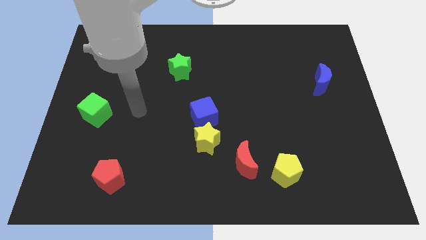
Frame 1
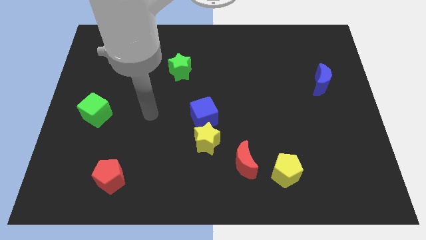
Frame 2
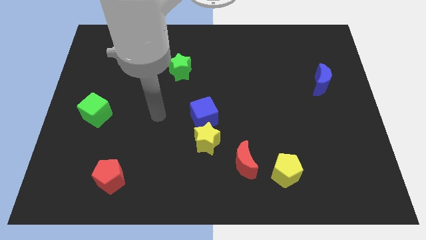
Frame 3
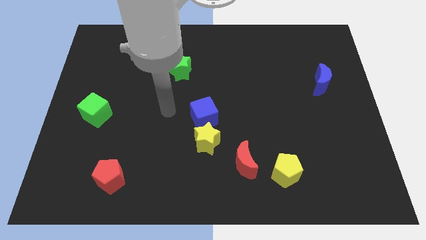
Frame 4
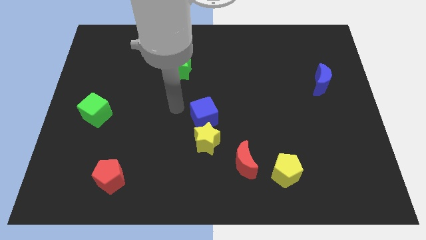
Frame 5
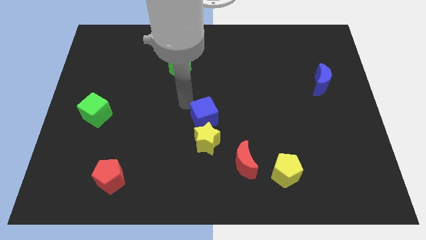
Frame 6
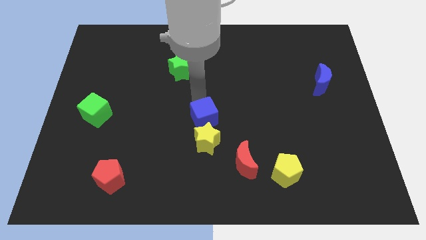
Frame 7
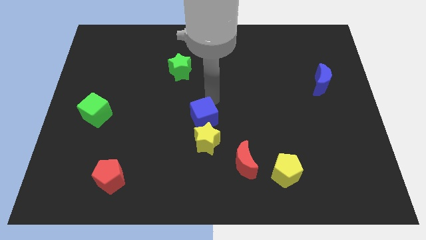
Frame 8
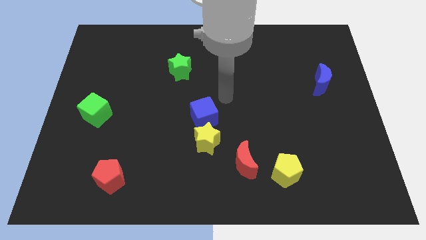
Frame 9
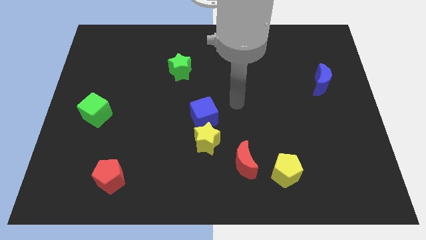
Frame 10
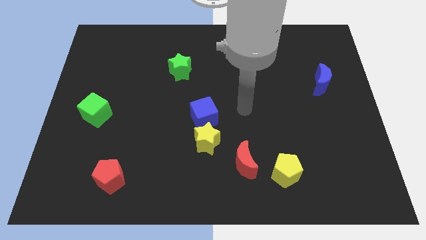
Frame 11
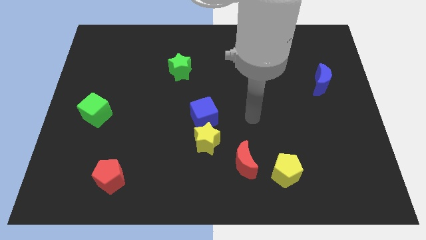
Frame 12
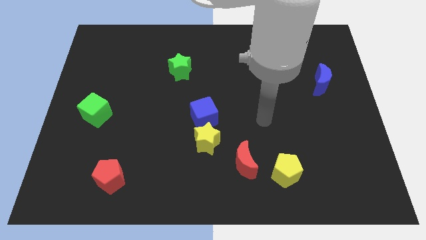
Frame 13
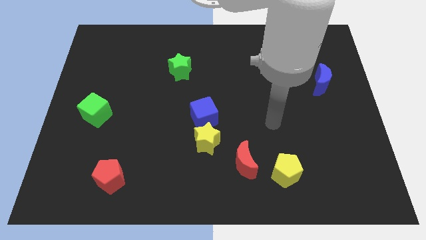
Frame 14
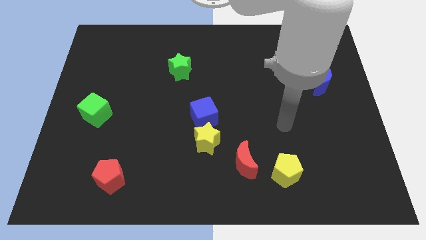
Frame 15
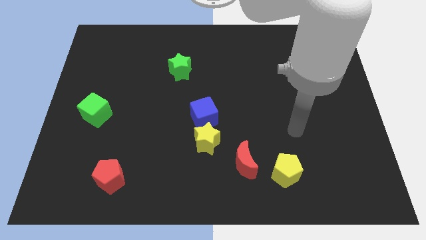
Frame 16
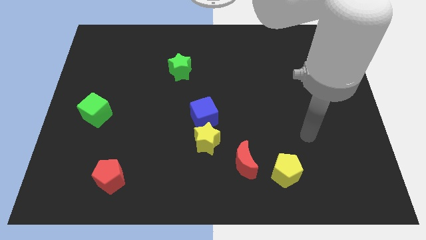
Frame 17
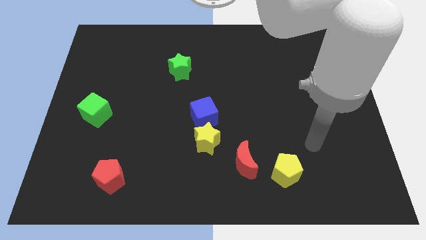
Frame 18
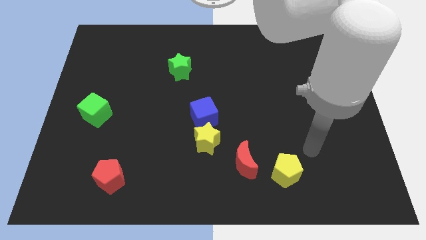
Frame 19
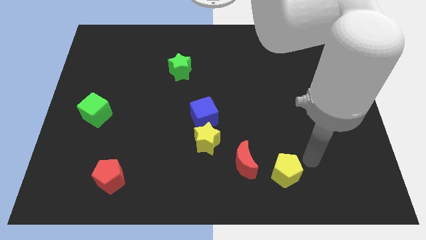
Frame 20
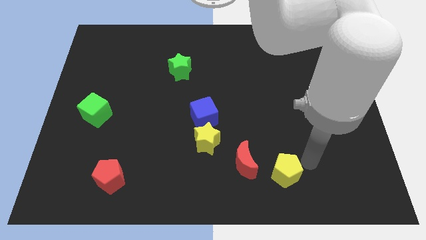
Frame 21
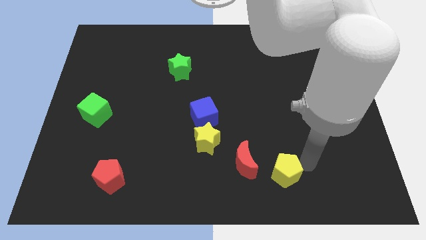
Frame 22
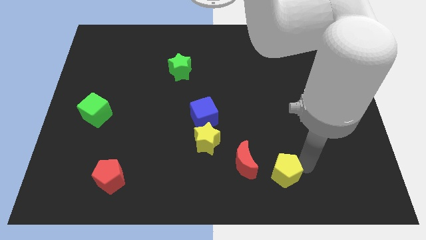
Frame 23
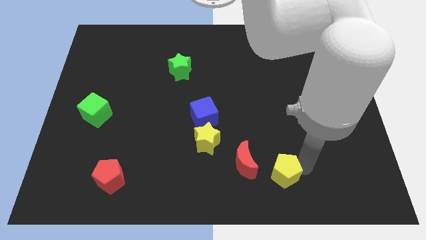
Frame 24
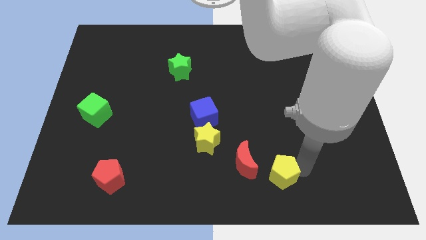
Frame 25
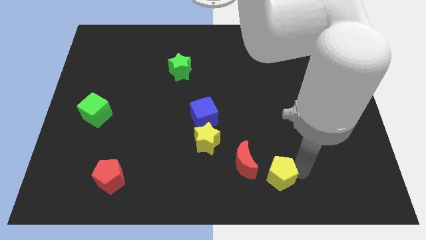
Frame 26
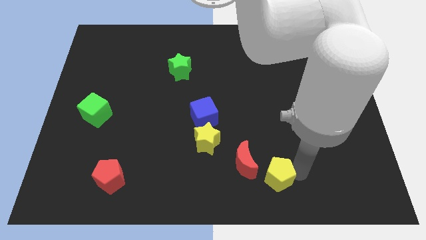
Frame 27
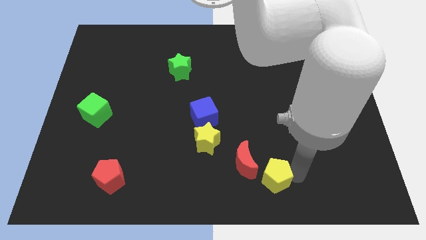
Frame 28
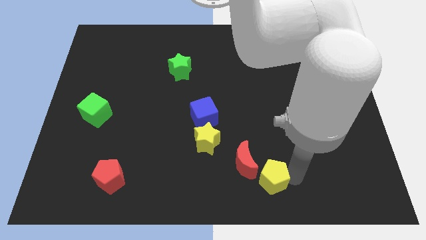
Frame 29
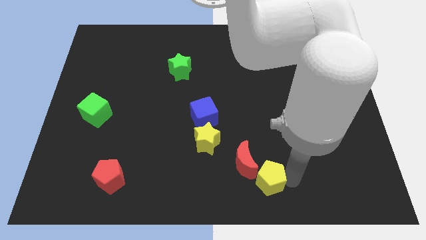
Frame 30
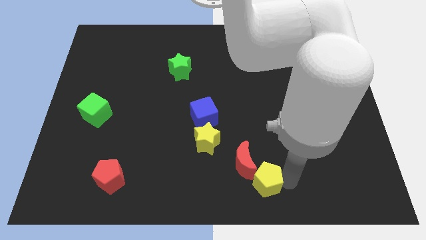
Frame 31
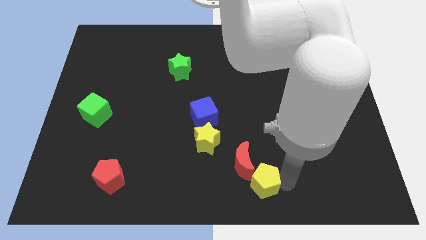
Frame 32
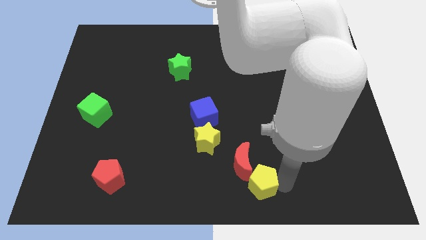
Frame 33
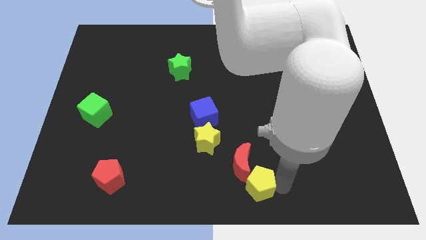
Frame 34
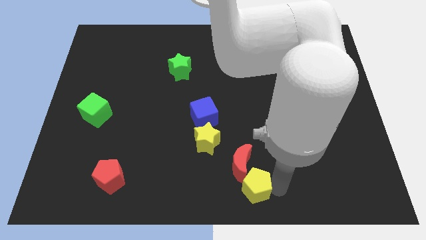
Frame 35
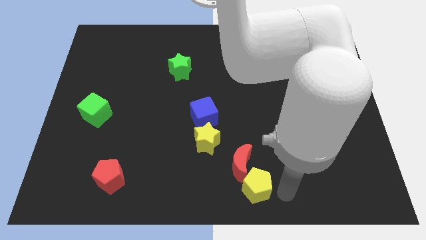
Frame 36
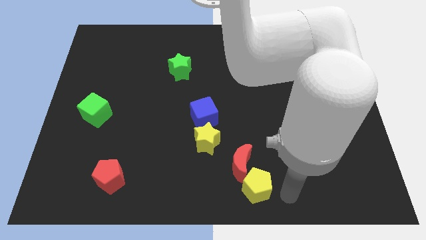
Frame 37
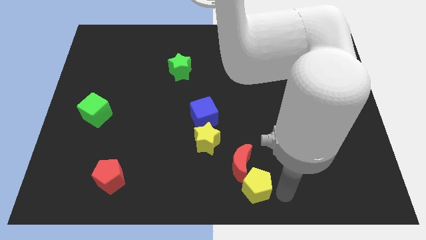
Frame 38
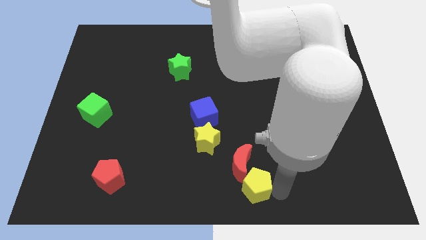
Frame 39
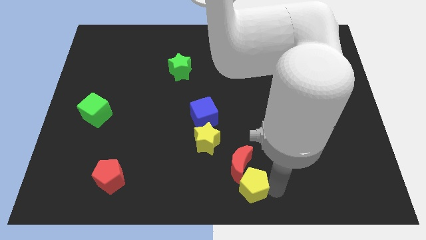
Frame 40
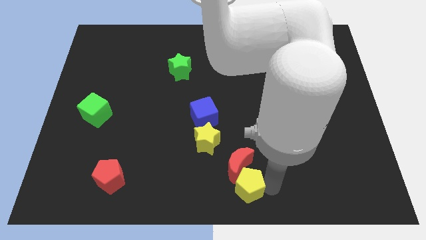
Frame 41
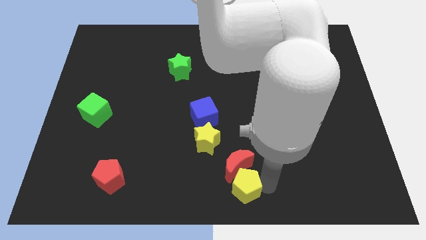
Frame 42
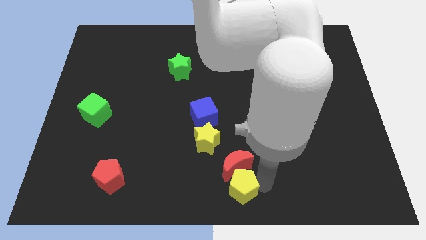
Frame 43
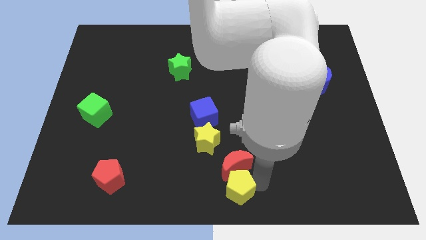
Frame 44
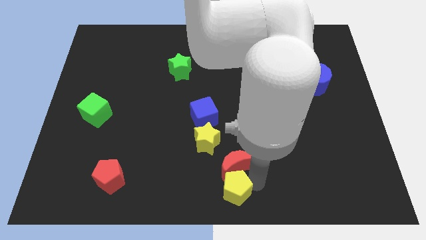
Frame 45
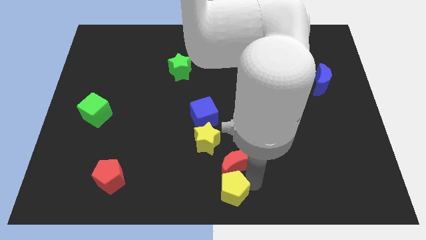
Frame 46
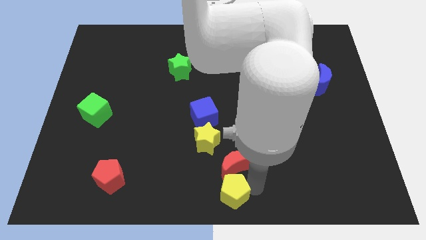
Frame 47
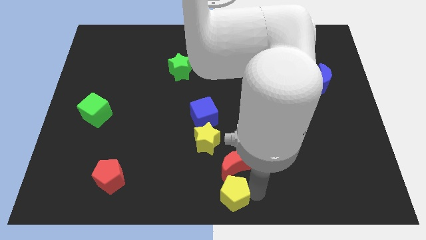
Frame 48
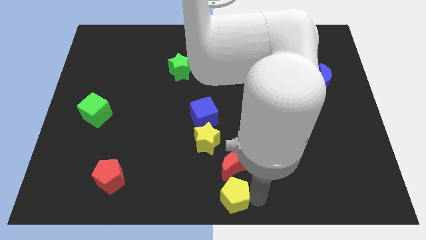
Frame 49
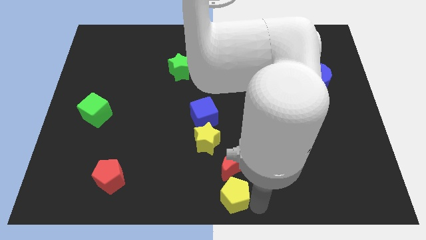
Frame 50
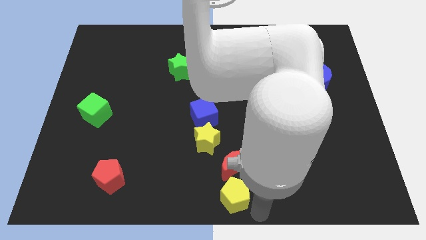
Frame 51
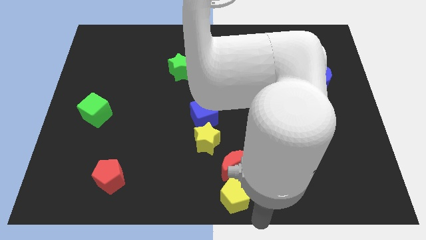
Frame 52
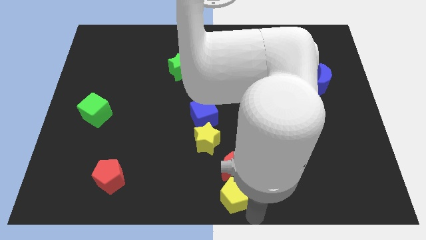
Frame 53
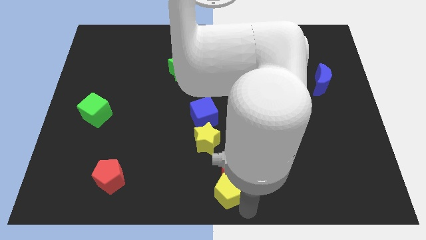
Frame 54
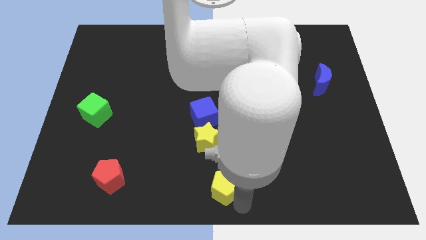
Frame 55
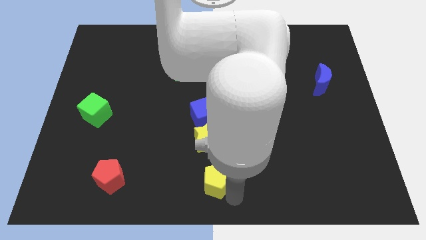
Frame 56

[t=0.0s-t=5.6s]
put the yellow pentagon to the left side of the red moon

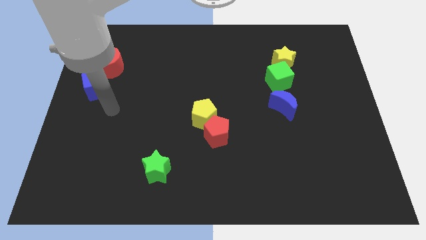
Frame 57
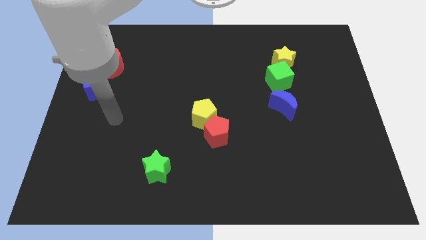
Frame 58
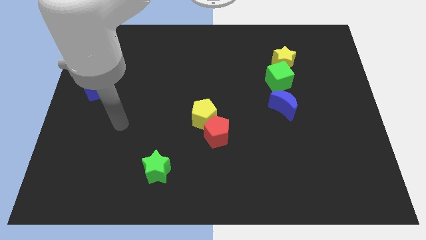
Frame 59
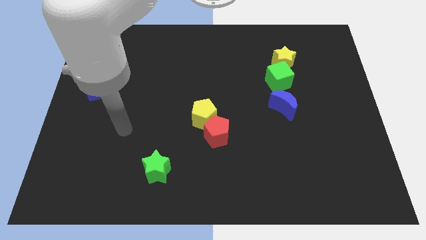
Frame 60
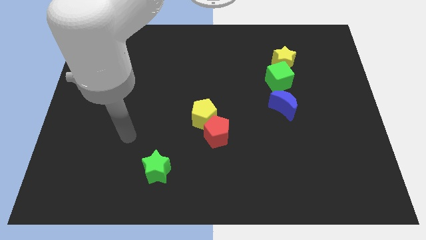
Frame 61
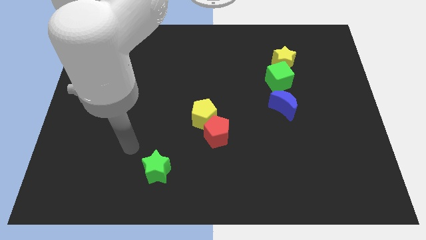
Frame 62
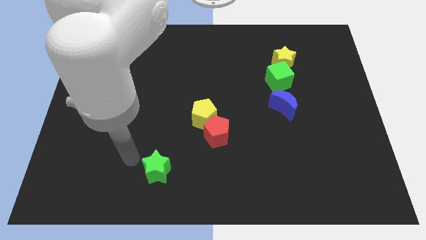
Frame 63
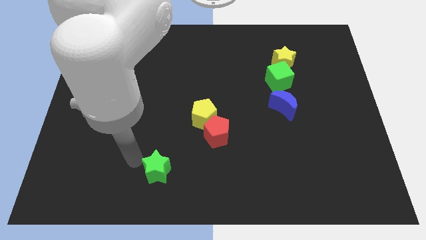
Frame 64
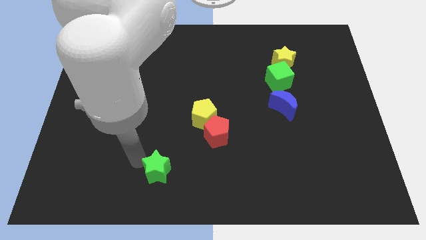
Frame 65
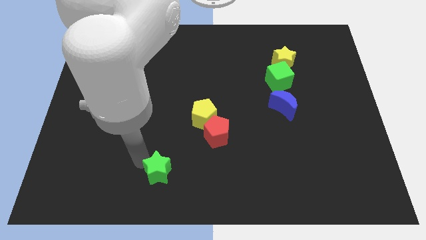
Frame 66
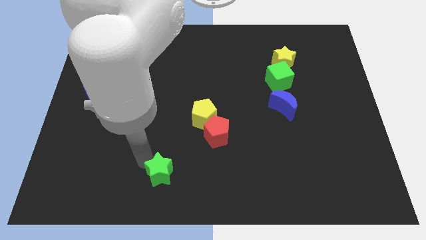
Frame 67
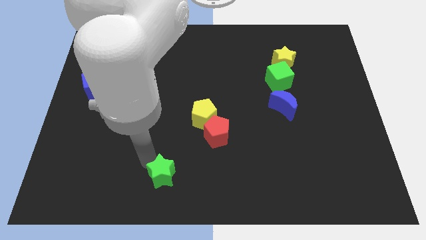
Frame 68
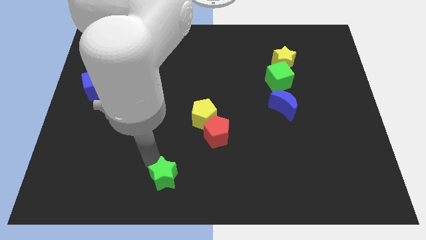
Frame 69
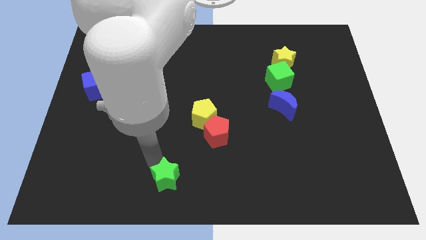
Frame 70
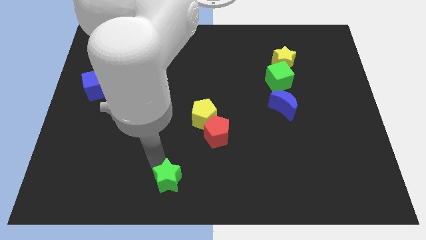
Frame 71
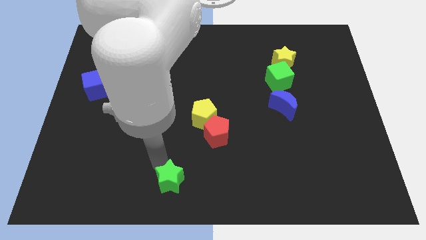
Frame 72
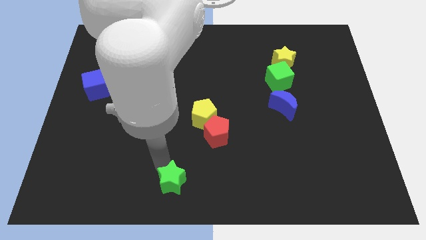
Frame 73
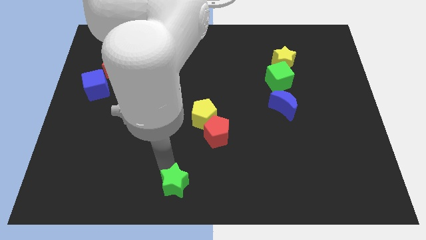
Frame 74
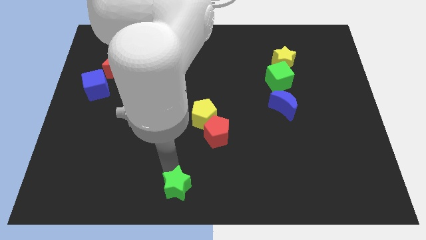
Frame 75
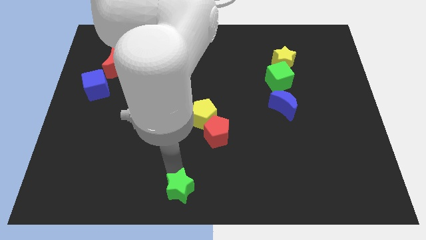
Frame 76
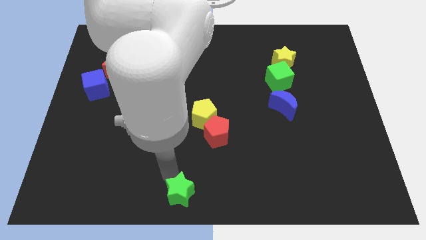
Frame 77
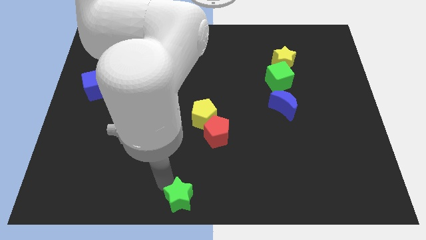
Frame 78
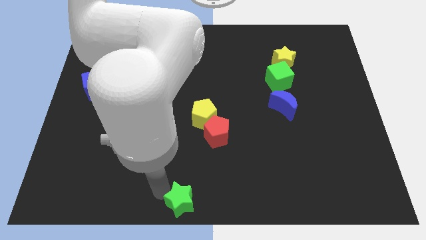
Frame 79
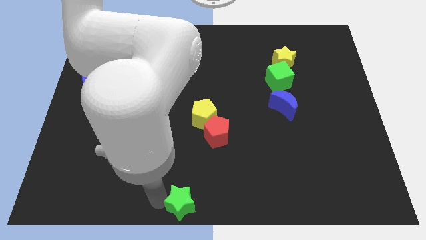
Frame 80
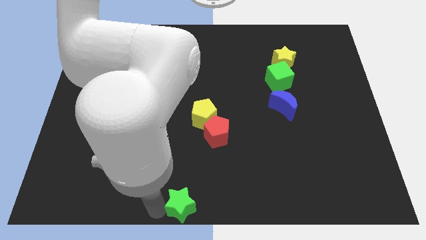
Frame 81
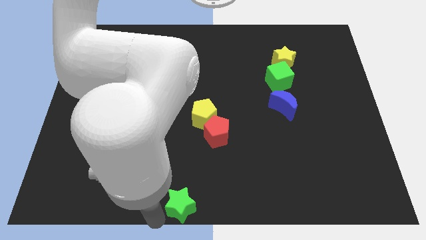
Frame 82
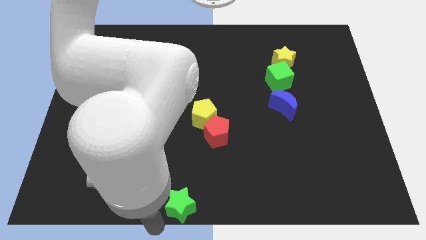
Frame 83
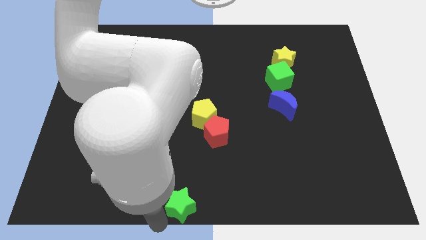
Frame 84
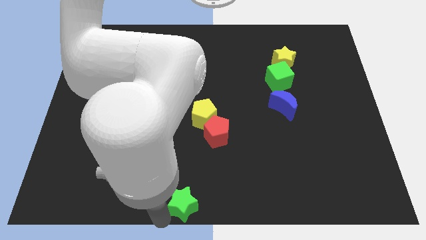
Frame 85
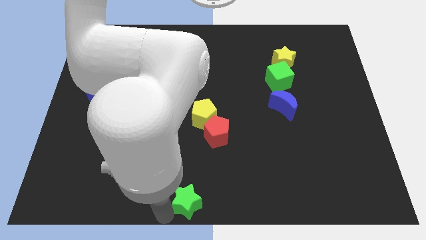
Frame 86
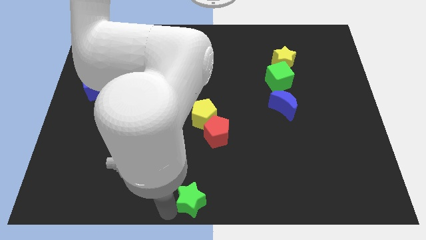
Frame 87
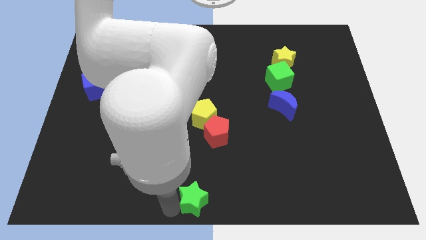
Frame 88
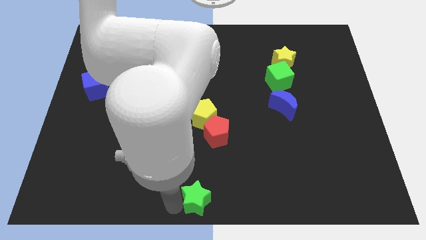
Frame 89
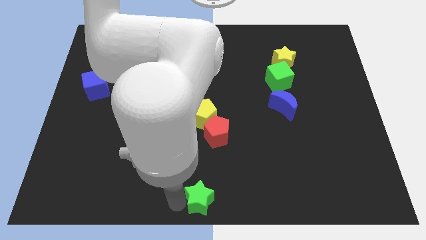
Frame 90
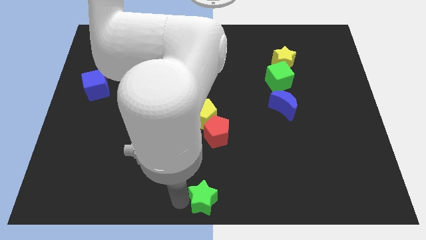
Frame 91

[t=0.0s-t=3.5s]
push the green star to the bottom side of the red pentagon
